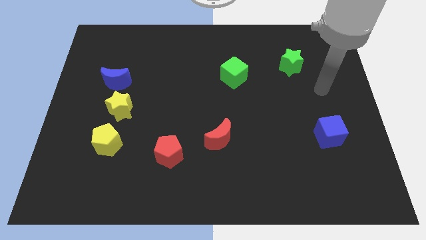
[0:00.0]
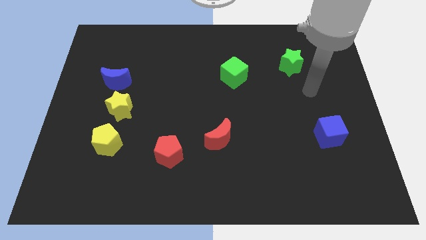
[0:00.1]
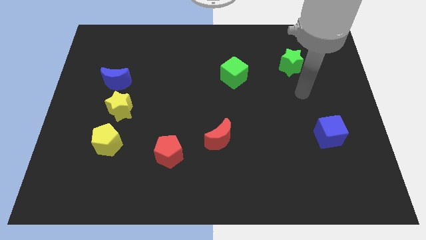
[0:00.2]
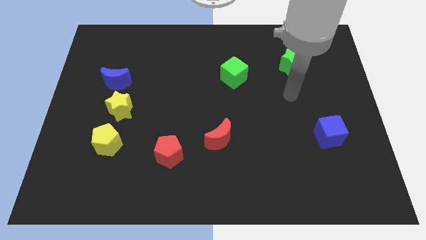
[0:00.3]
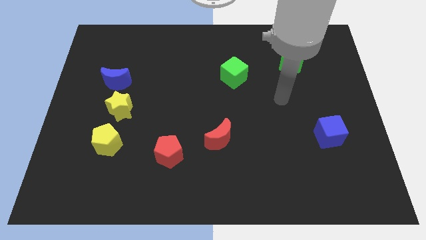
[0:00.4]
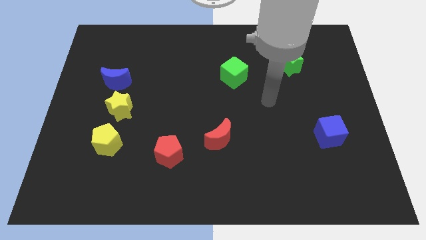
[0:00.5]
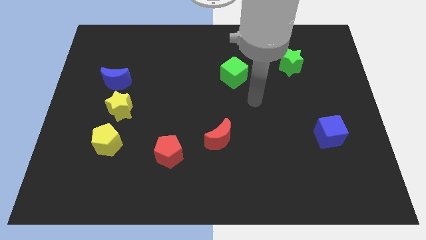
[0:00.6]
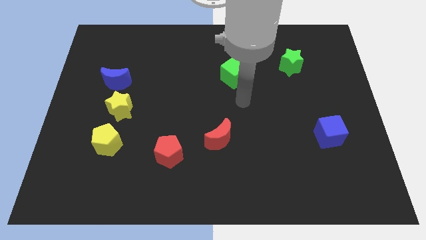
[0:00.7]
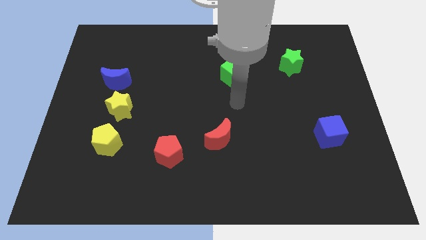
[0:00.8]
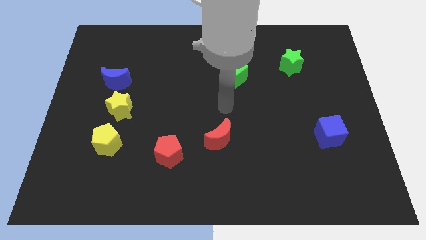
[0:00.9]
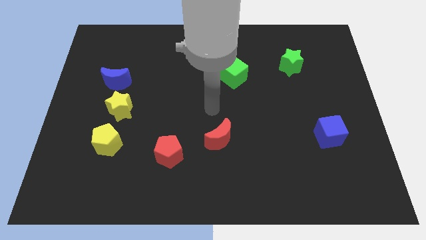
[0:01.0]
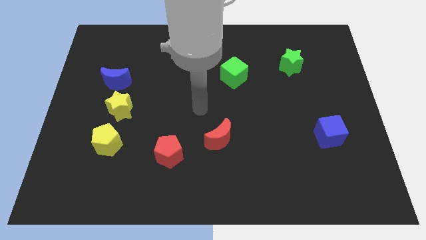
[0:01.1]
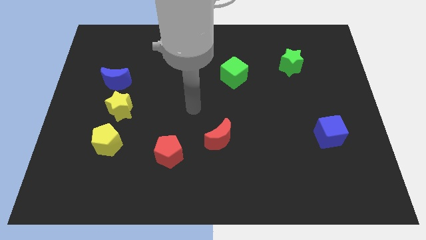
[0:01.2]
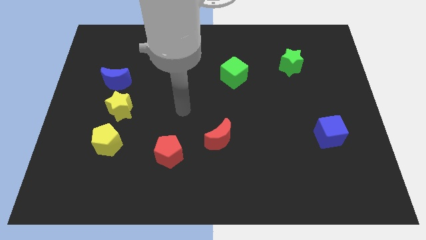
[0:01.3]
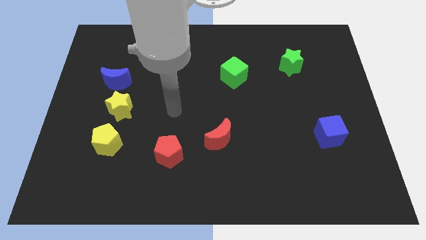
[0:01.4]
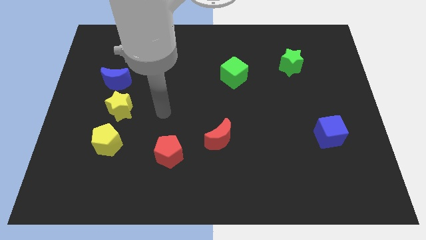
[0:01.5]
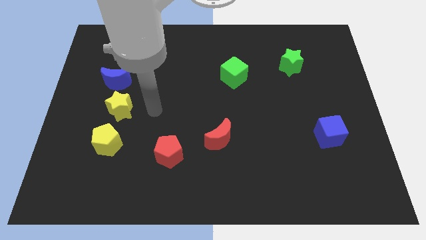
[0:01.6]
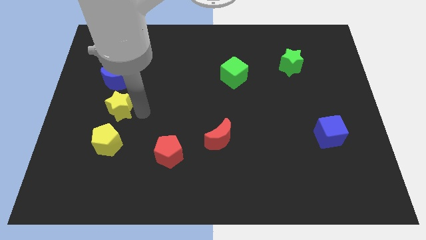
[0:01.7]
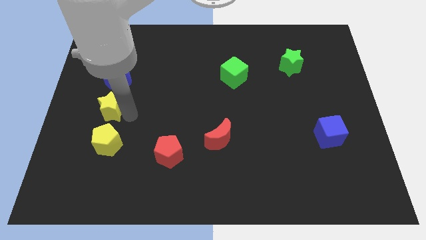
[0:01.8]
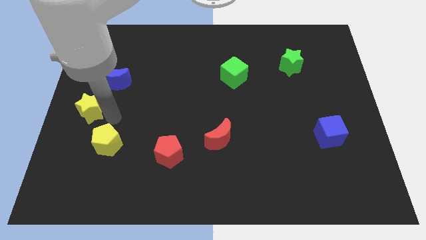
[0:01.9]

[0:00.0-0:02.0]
pull the yellow pentagon apart from the yellow star

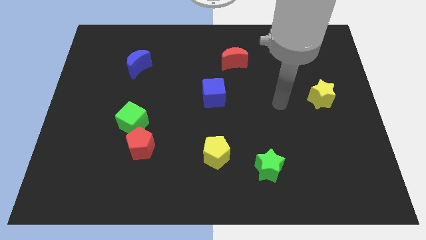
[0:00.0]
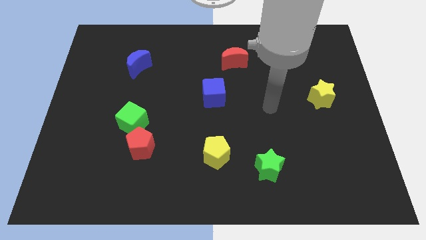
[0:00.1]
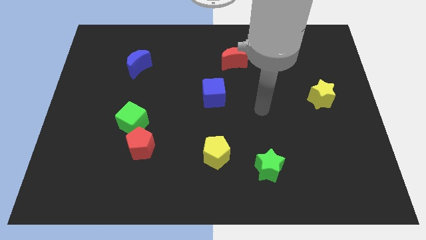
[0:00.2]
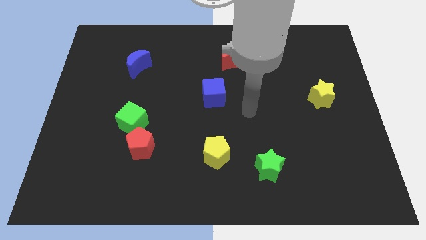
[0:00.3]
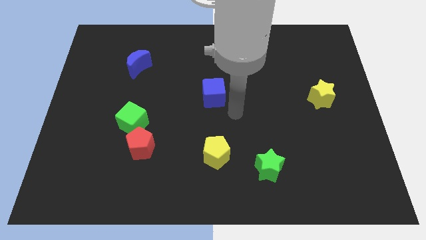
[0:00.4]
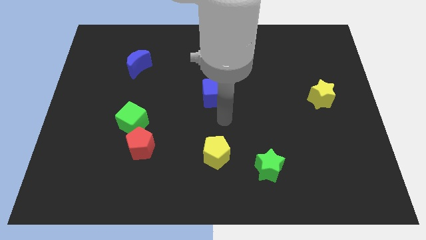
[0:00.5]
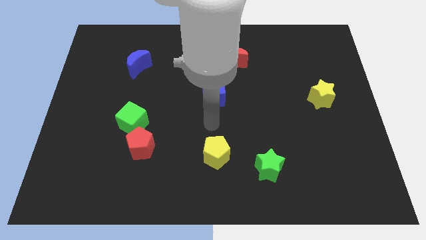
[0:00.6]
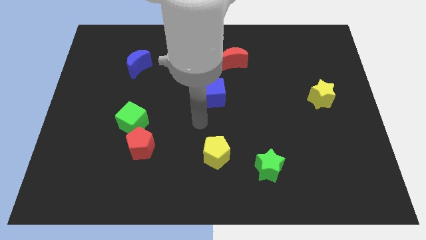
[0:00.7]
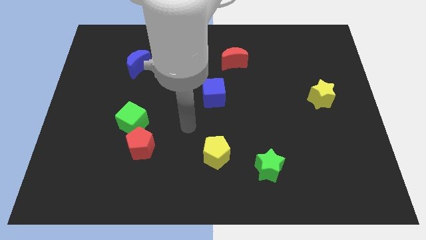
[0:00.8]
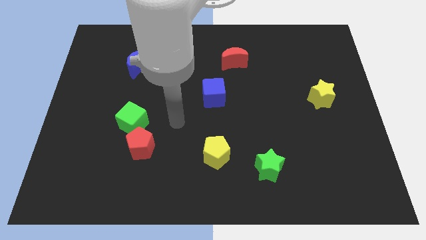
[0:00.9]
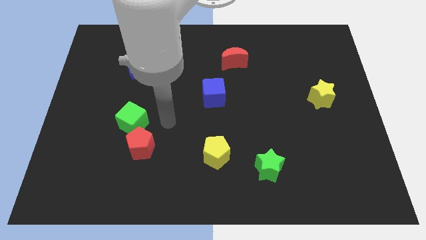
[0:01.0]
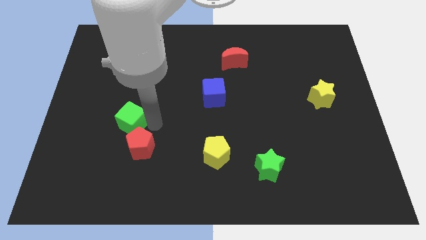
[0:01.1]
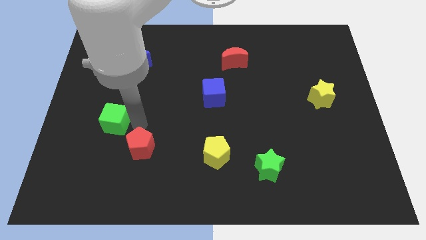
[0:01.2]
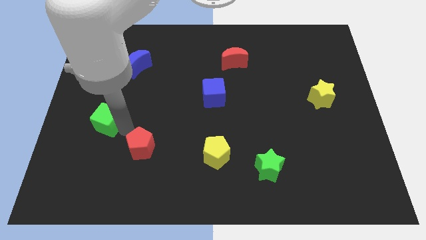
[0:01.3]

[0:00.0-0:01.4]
separate the red pentagon from the green cube

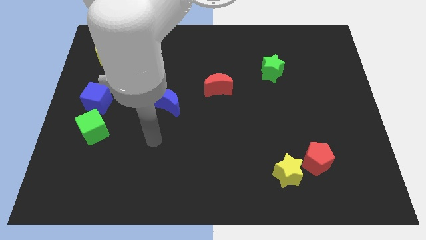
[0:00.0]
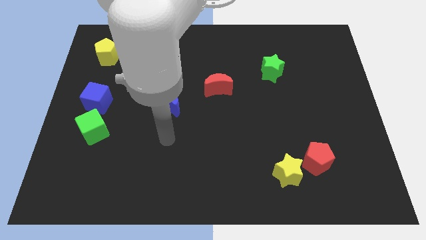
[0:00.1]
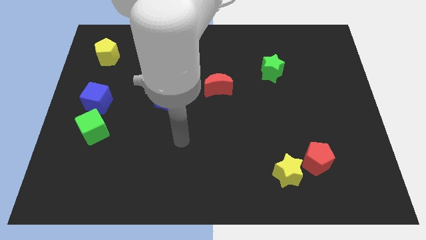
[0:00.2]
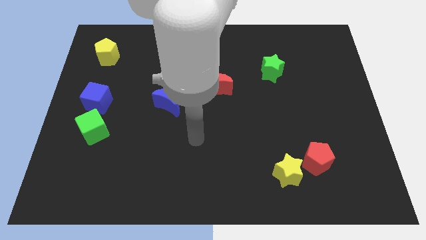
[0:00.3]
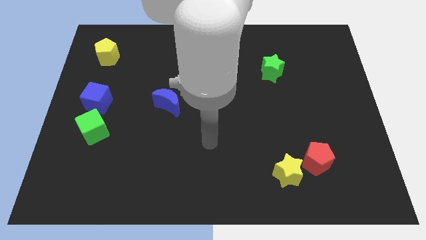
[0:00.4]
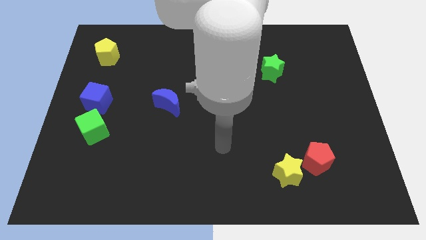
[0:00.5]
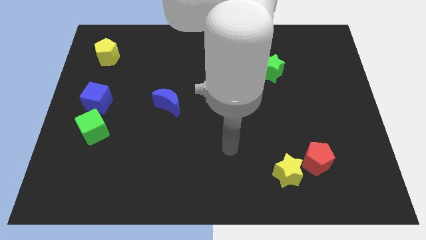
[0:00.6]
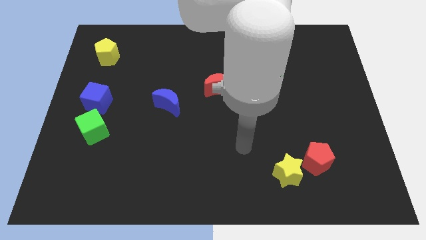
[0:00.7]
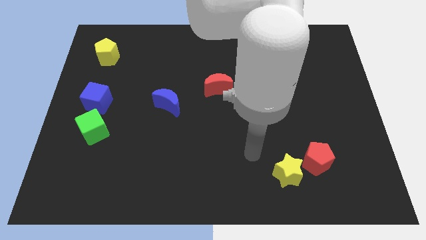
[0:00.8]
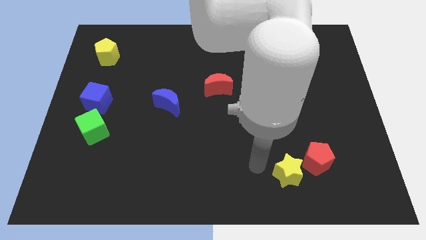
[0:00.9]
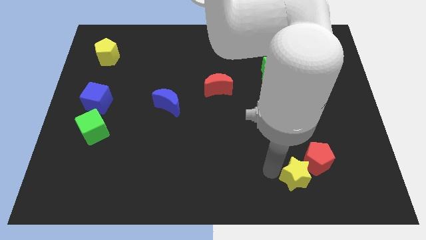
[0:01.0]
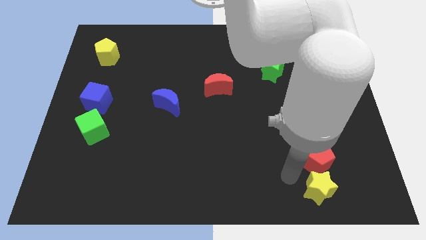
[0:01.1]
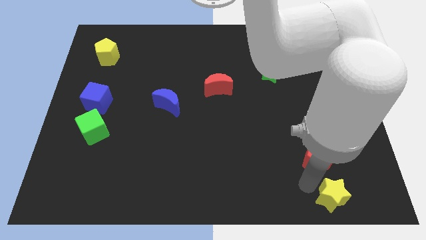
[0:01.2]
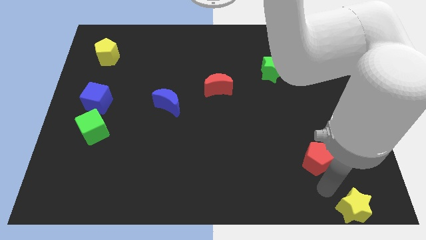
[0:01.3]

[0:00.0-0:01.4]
separate the red pentagon from the yellow star

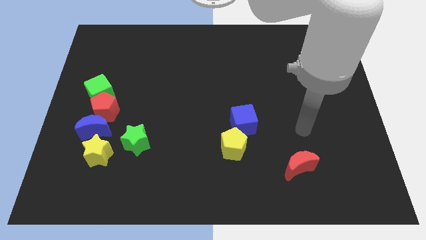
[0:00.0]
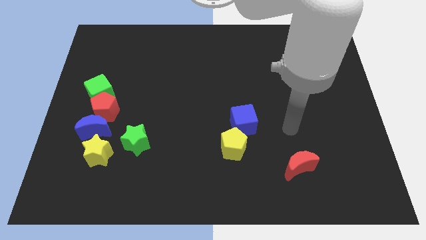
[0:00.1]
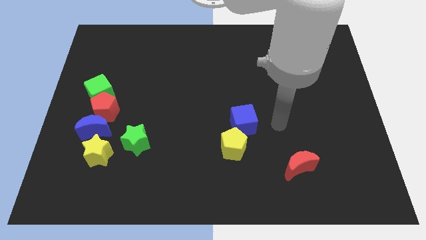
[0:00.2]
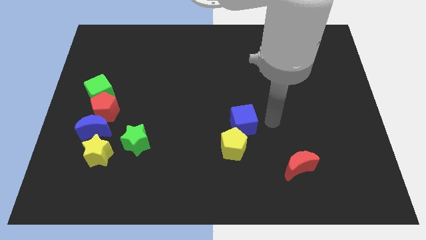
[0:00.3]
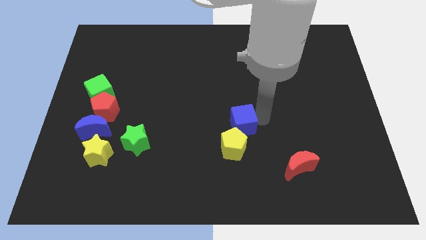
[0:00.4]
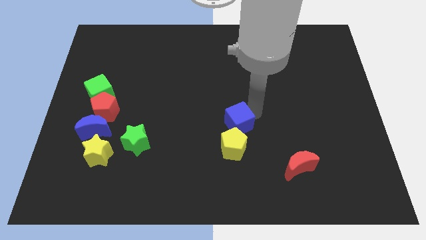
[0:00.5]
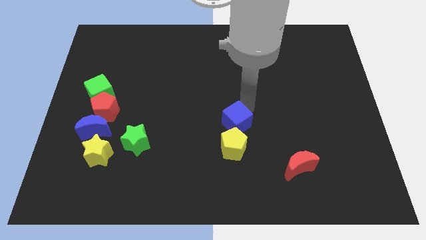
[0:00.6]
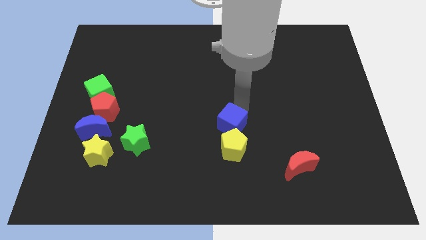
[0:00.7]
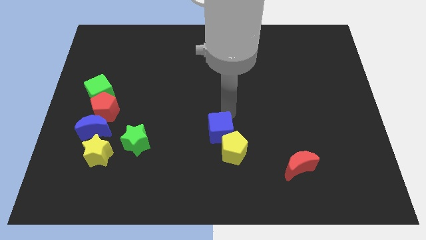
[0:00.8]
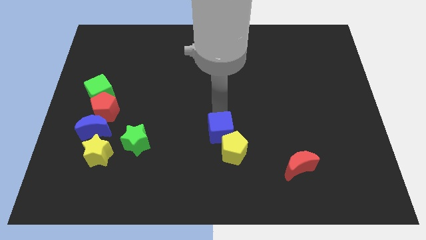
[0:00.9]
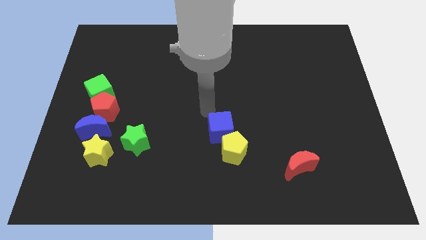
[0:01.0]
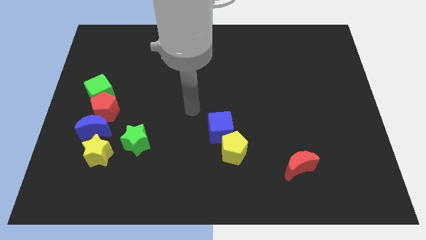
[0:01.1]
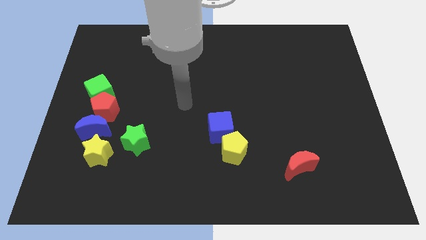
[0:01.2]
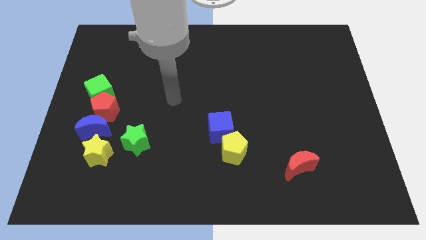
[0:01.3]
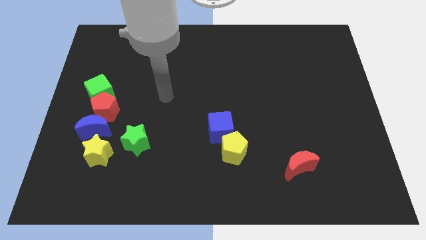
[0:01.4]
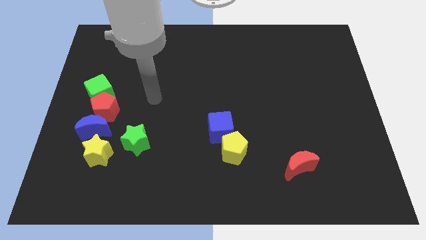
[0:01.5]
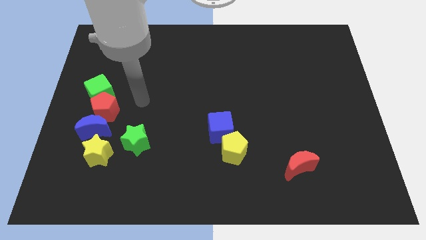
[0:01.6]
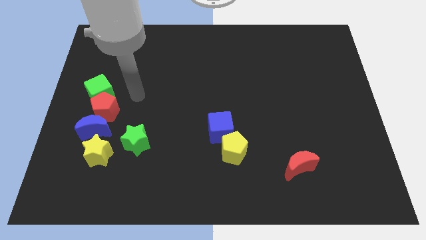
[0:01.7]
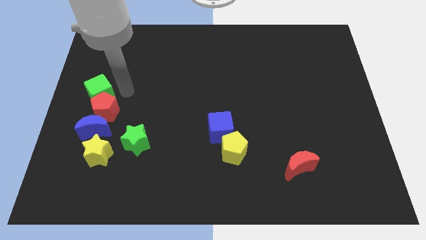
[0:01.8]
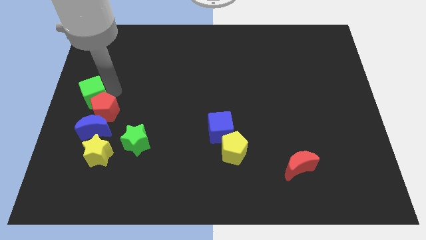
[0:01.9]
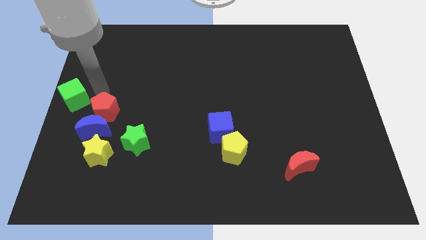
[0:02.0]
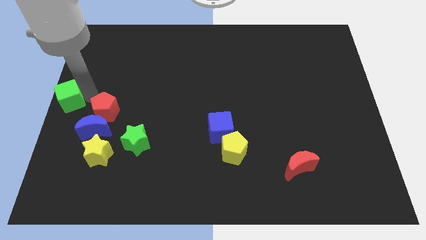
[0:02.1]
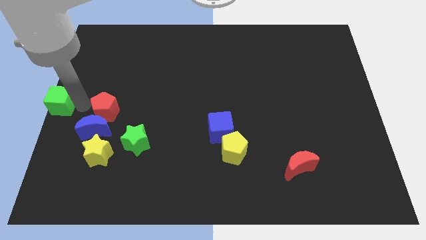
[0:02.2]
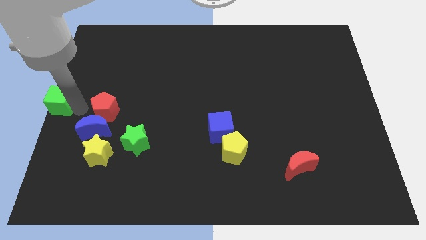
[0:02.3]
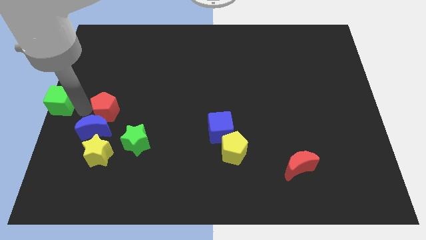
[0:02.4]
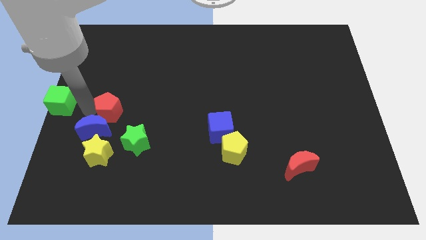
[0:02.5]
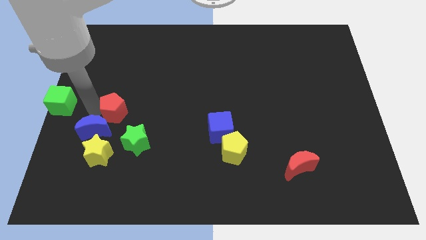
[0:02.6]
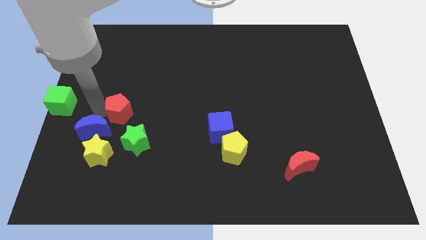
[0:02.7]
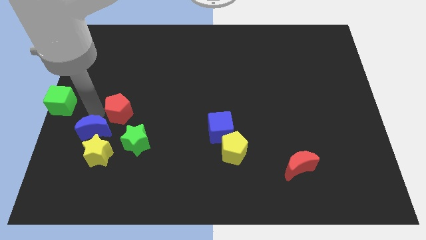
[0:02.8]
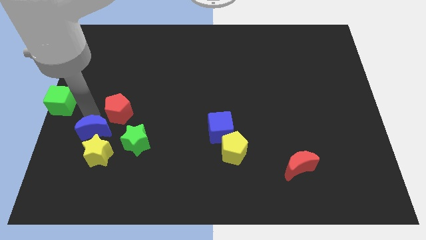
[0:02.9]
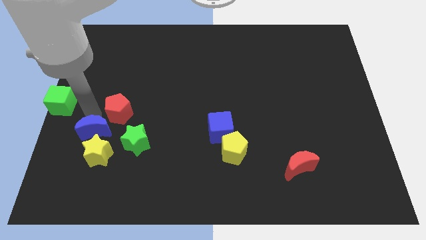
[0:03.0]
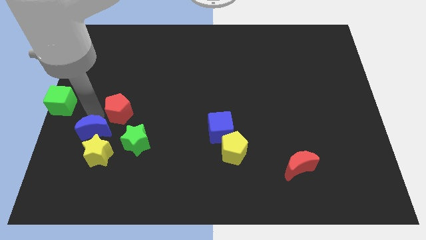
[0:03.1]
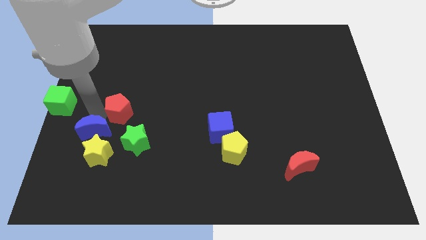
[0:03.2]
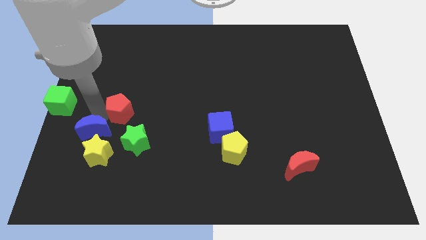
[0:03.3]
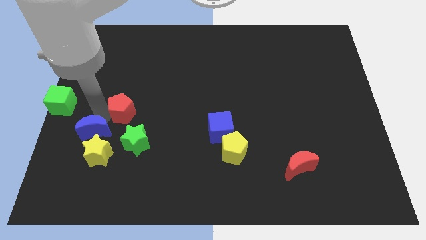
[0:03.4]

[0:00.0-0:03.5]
move the red pentagon away from the blue moon and green cube

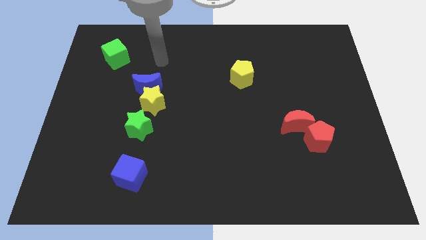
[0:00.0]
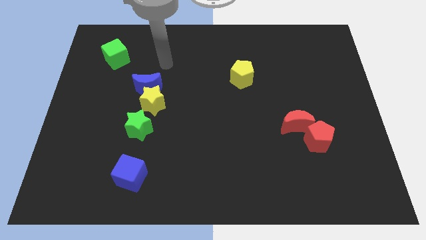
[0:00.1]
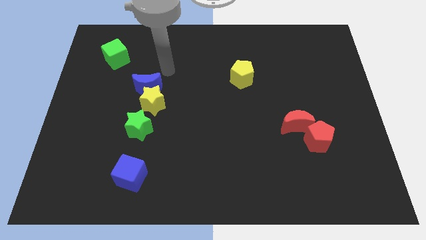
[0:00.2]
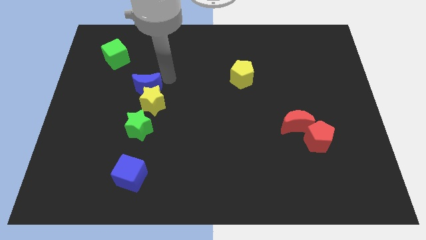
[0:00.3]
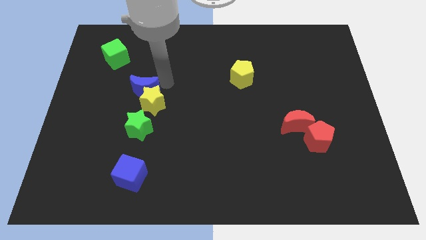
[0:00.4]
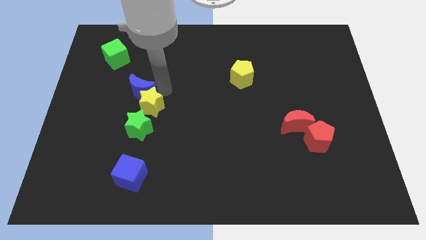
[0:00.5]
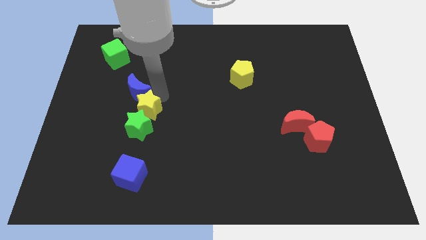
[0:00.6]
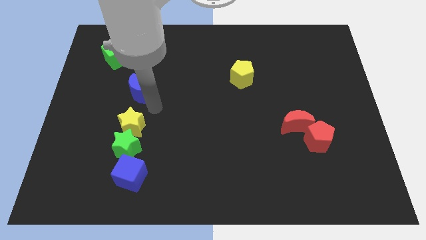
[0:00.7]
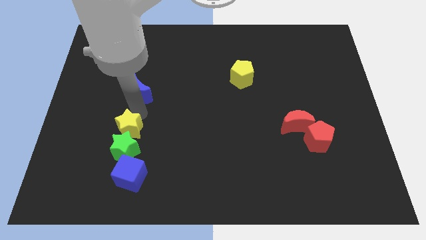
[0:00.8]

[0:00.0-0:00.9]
separate the blue moon from the yellow star

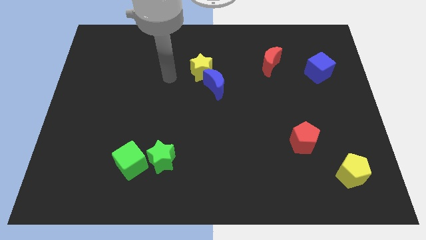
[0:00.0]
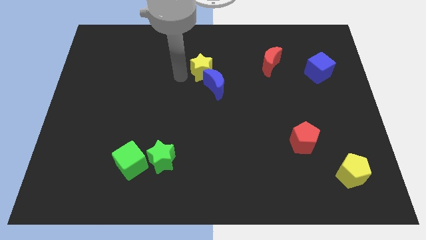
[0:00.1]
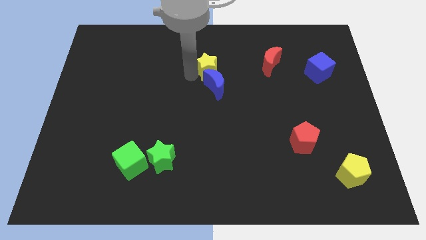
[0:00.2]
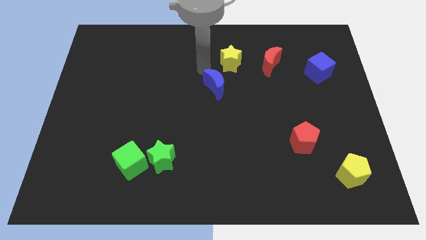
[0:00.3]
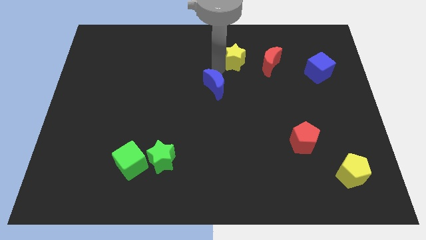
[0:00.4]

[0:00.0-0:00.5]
move the blue moon away from the yellow star
